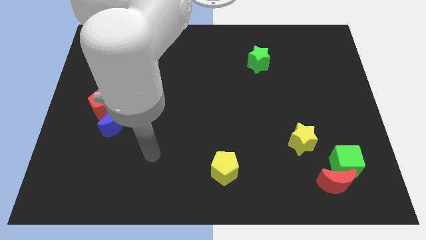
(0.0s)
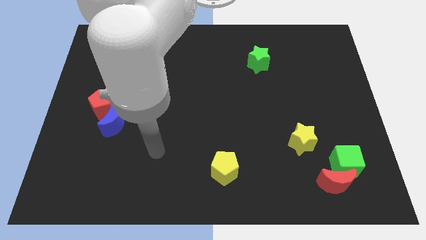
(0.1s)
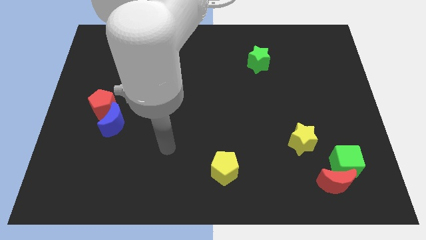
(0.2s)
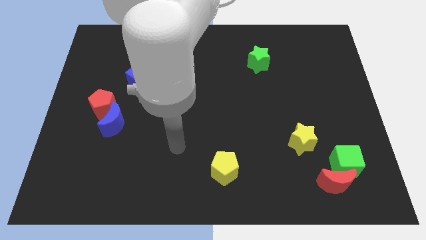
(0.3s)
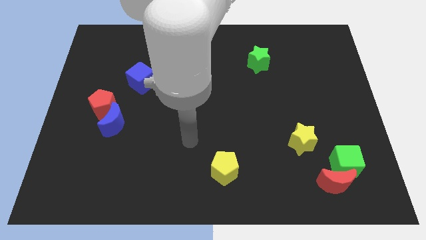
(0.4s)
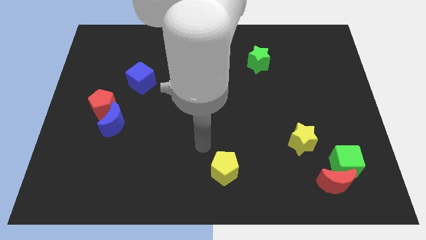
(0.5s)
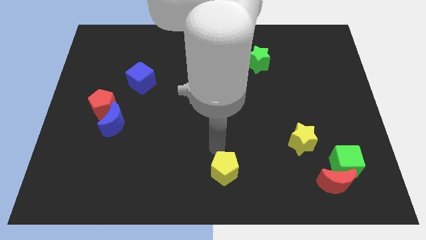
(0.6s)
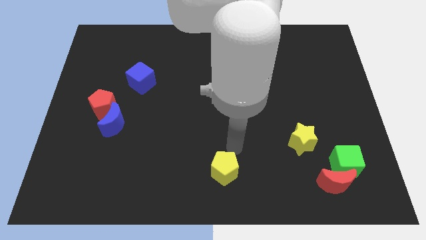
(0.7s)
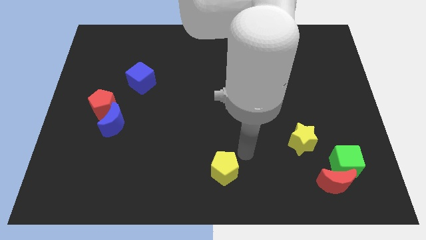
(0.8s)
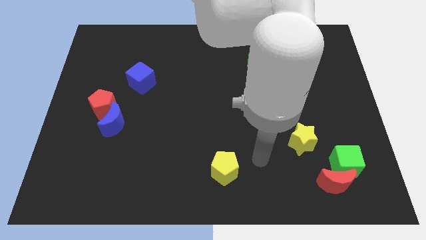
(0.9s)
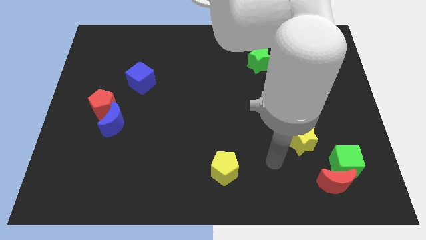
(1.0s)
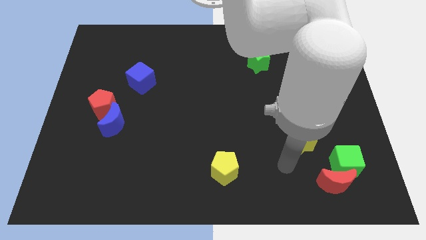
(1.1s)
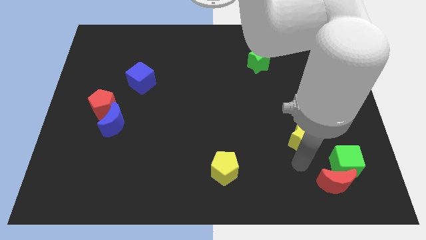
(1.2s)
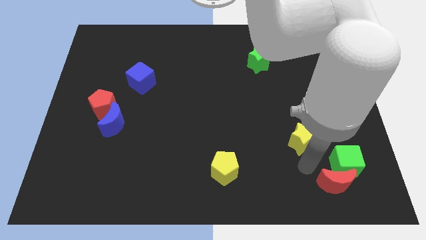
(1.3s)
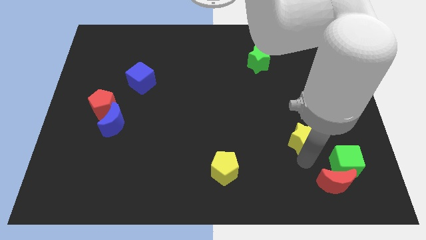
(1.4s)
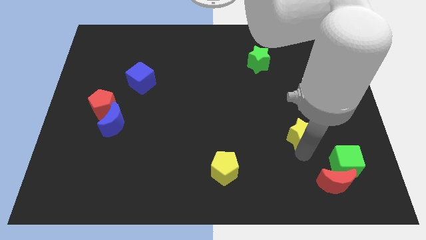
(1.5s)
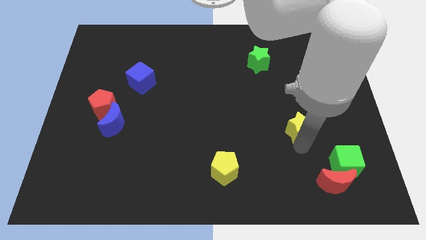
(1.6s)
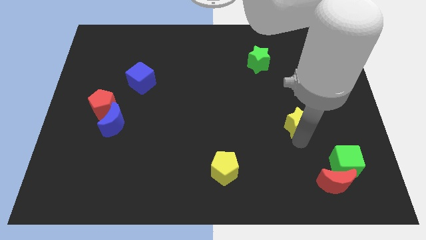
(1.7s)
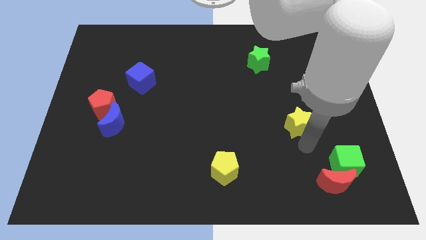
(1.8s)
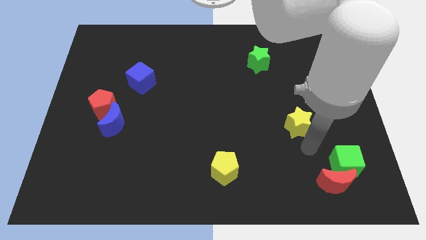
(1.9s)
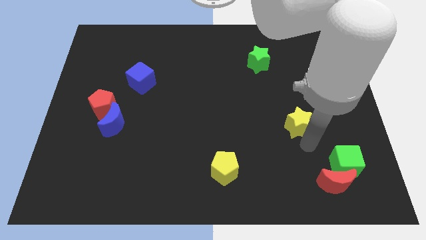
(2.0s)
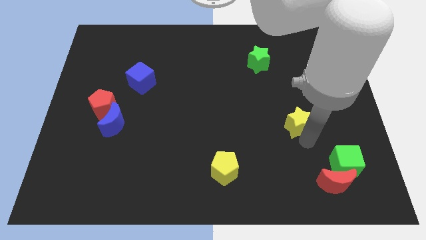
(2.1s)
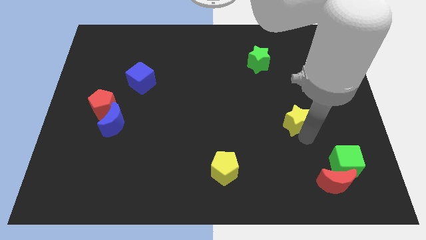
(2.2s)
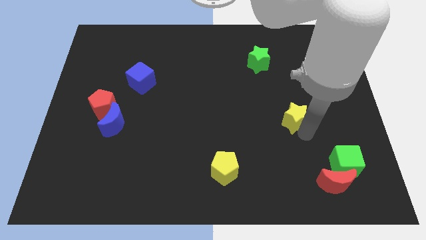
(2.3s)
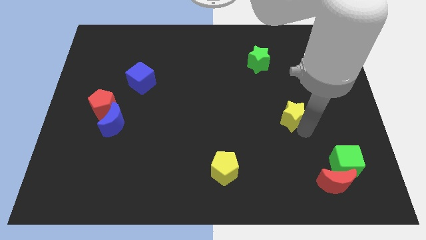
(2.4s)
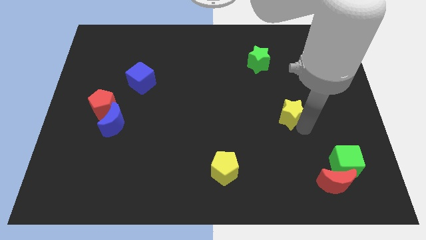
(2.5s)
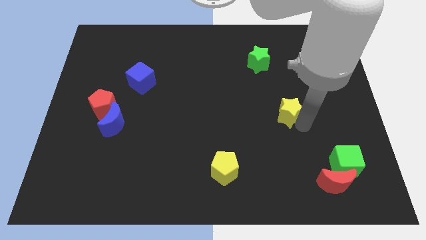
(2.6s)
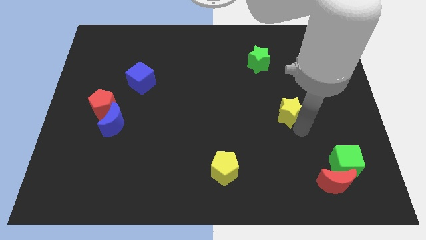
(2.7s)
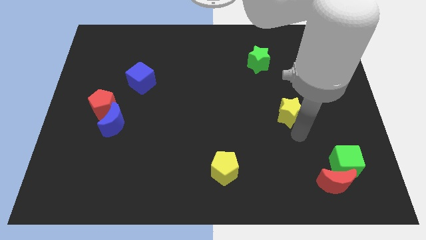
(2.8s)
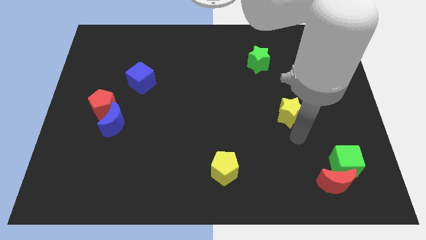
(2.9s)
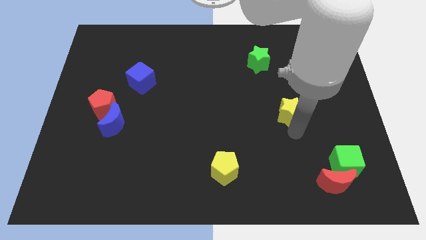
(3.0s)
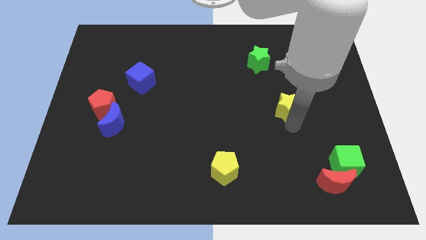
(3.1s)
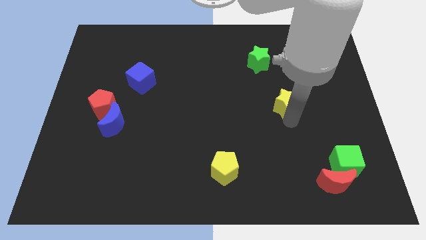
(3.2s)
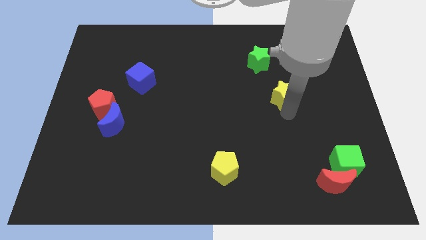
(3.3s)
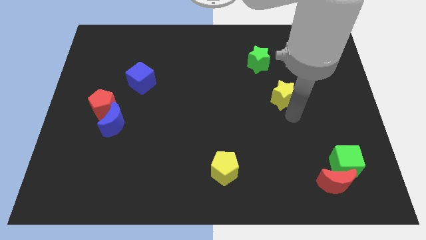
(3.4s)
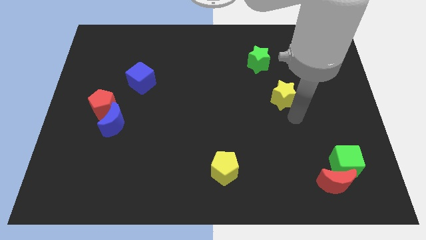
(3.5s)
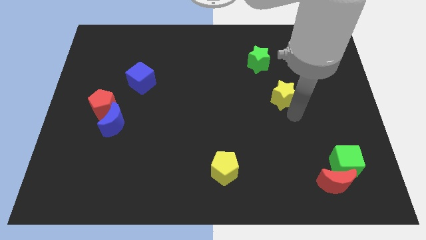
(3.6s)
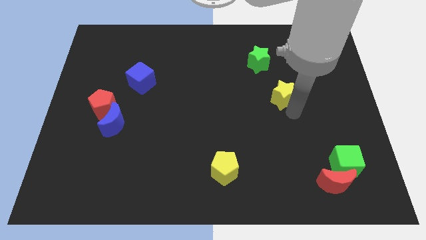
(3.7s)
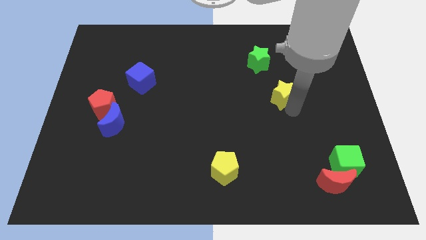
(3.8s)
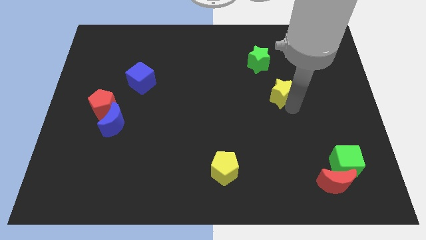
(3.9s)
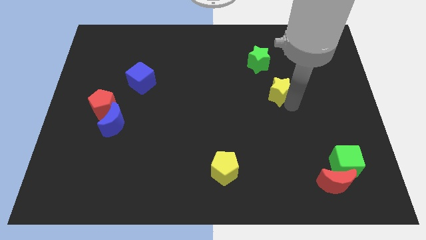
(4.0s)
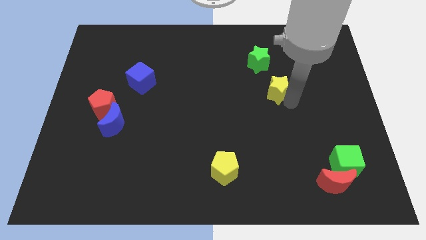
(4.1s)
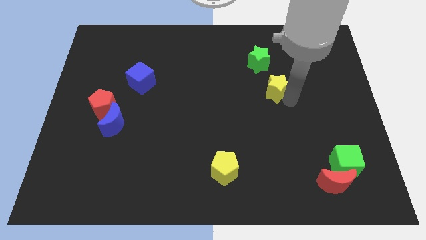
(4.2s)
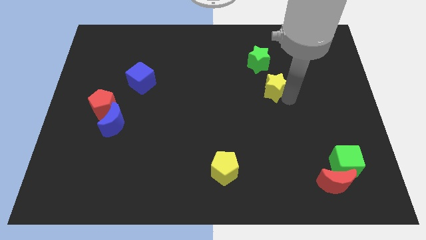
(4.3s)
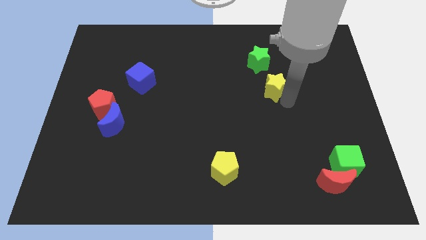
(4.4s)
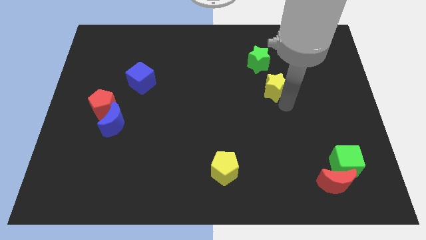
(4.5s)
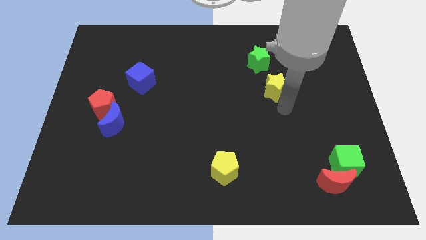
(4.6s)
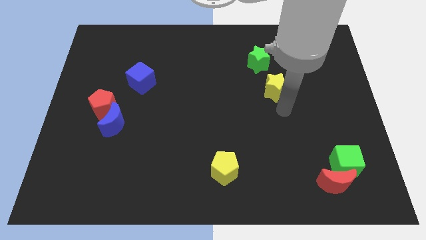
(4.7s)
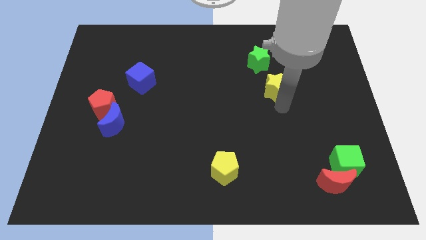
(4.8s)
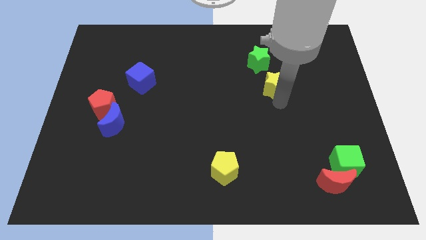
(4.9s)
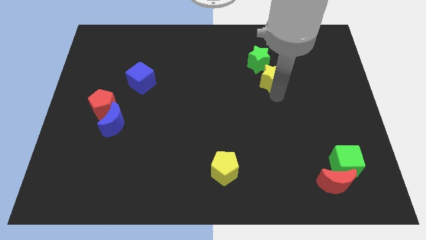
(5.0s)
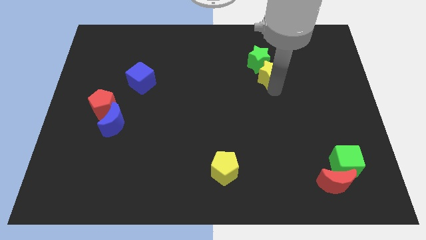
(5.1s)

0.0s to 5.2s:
move the yellow star next to the green star

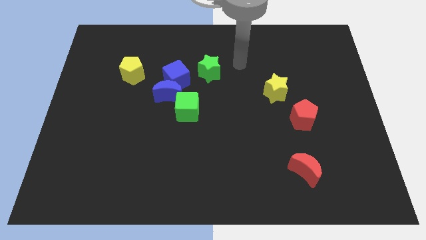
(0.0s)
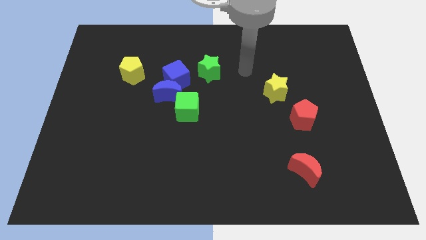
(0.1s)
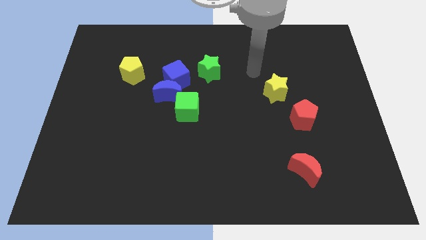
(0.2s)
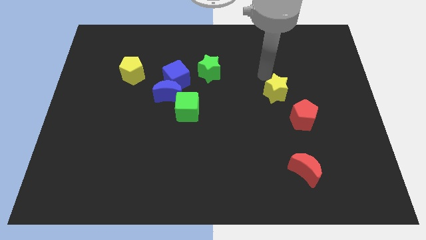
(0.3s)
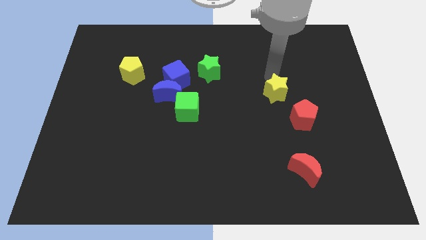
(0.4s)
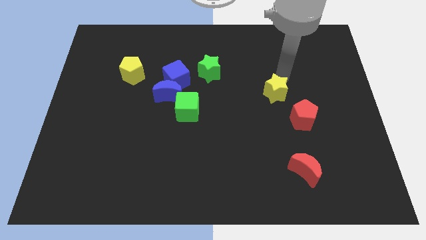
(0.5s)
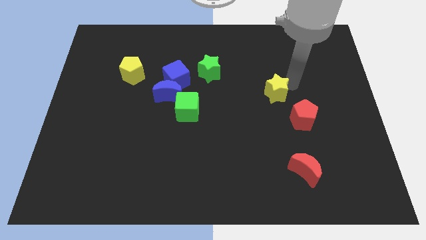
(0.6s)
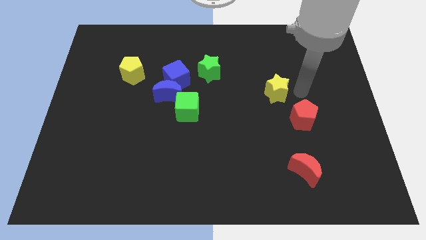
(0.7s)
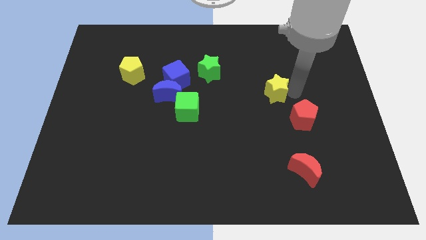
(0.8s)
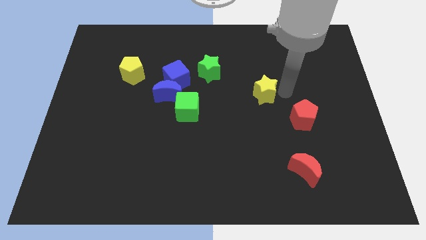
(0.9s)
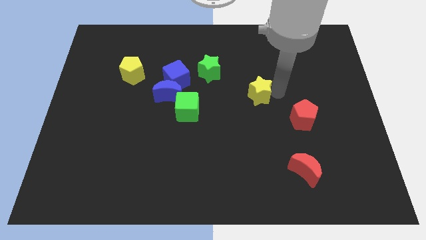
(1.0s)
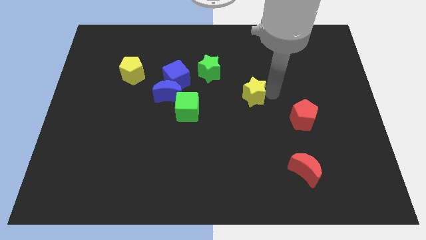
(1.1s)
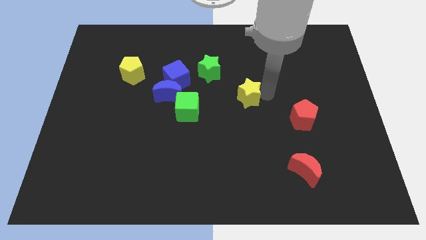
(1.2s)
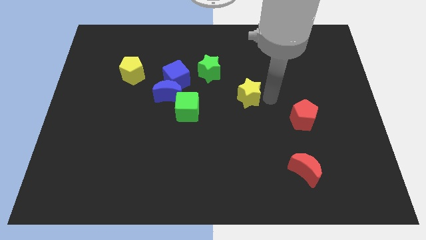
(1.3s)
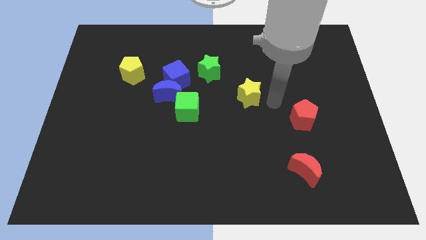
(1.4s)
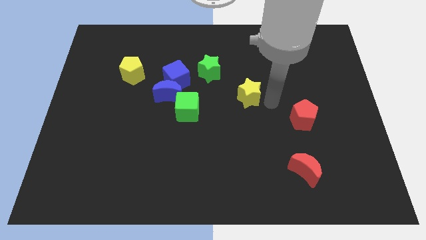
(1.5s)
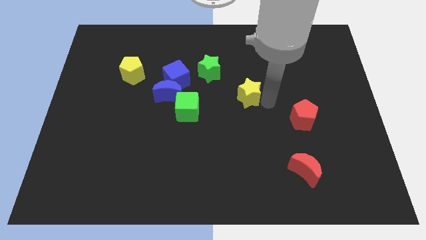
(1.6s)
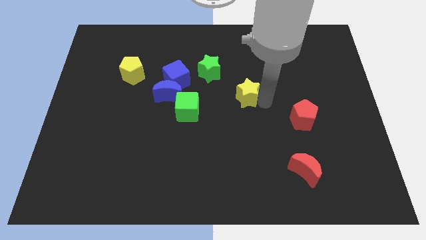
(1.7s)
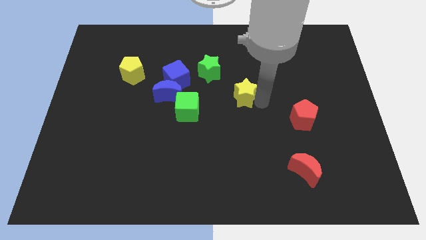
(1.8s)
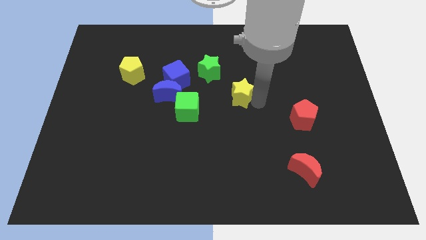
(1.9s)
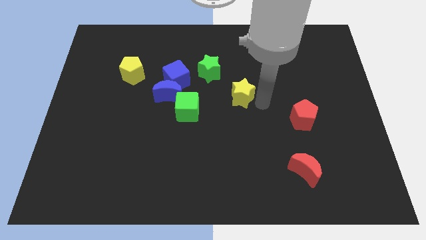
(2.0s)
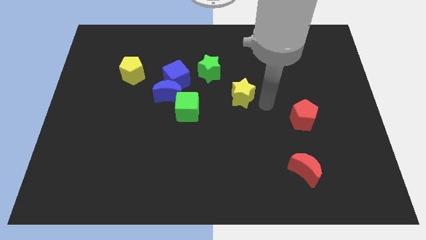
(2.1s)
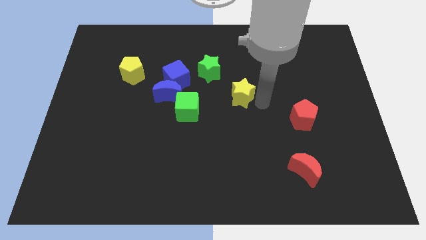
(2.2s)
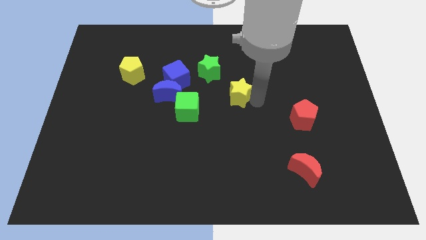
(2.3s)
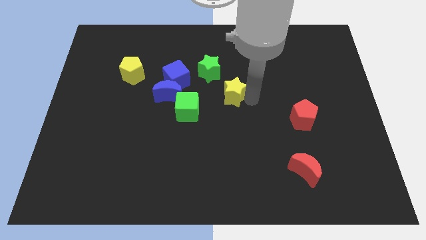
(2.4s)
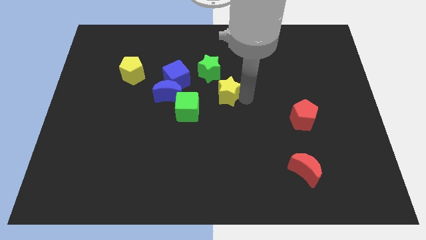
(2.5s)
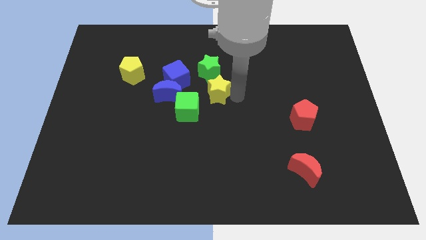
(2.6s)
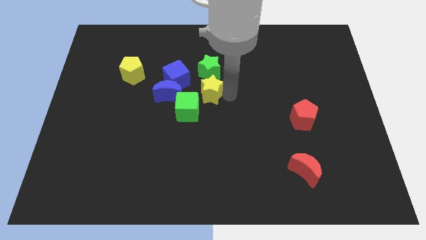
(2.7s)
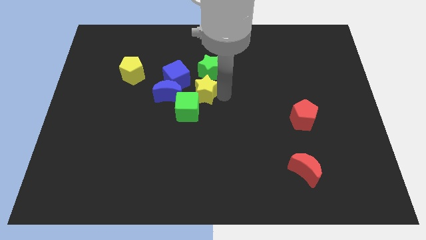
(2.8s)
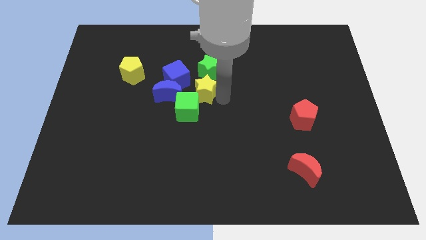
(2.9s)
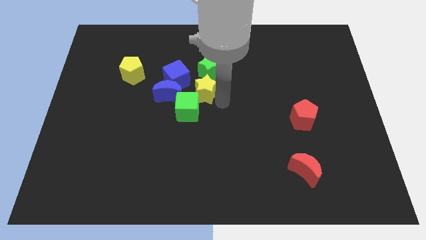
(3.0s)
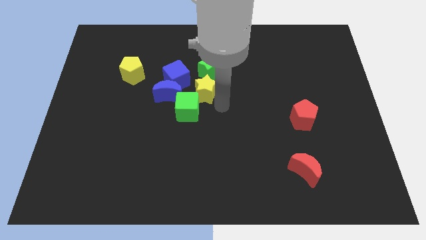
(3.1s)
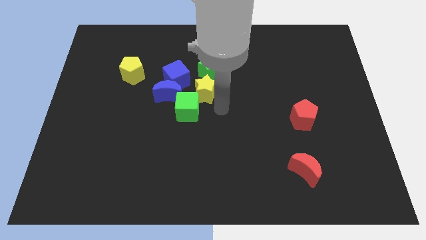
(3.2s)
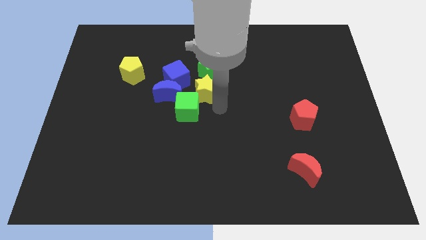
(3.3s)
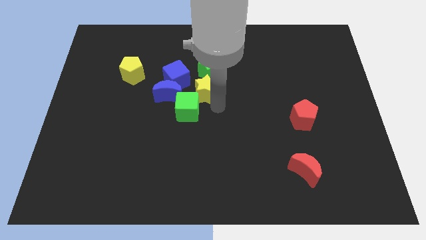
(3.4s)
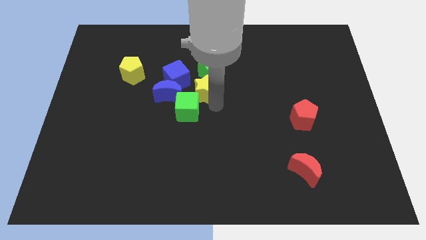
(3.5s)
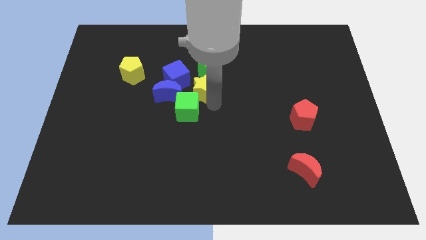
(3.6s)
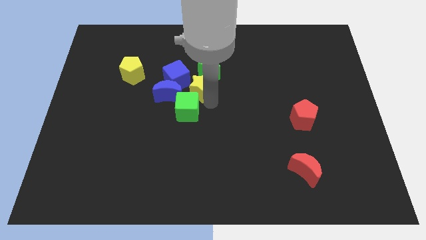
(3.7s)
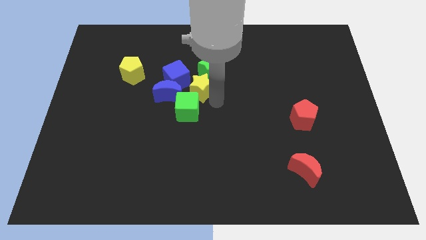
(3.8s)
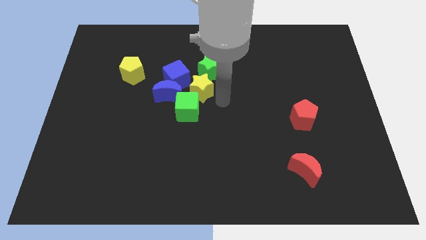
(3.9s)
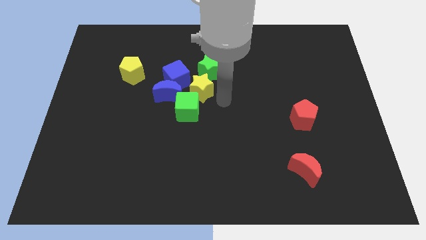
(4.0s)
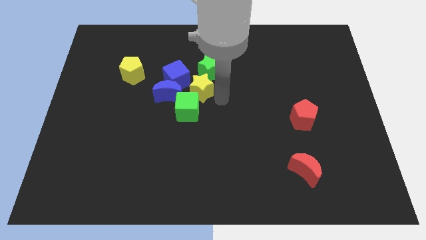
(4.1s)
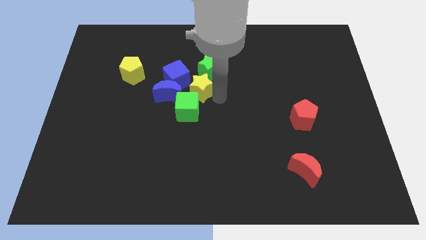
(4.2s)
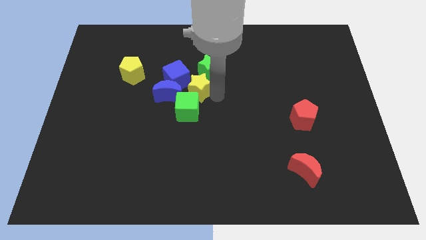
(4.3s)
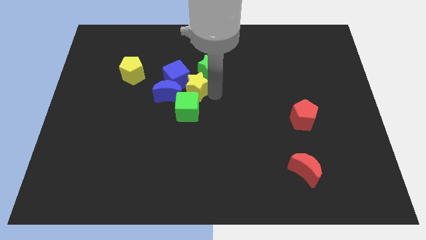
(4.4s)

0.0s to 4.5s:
push the yellow star next to the blue cube
